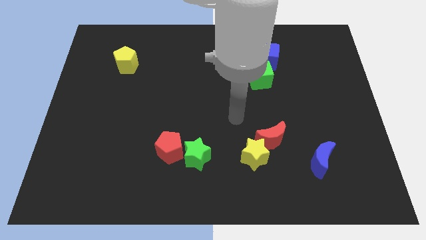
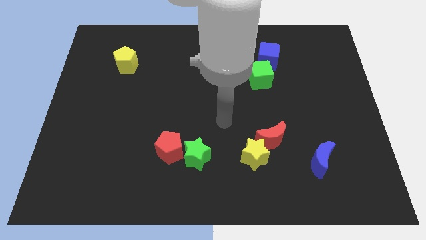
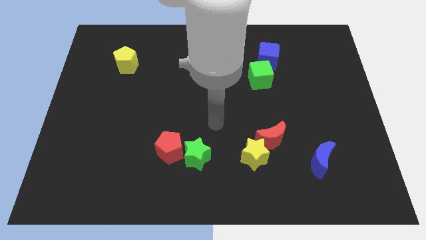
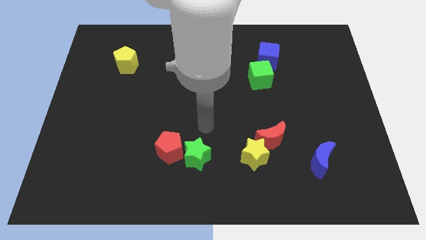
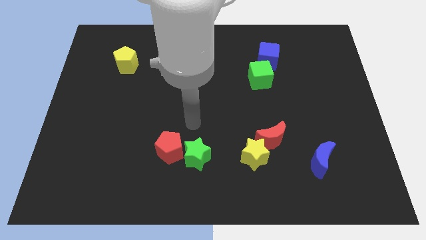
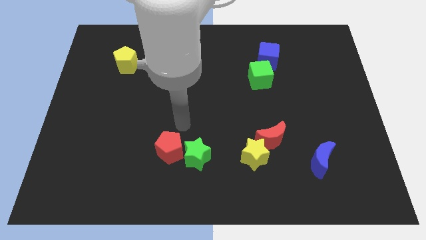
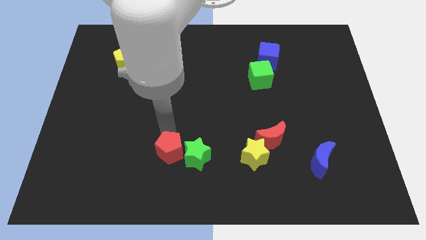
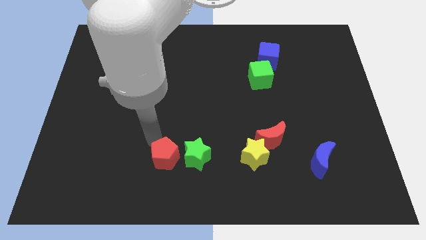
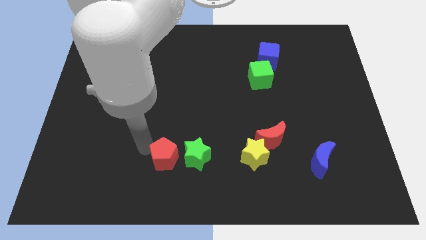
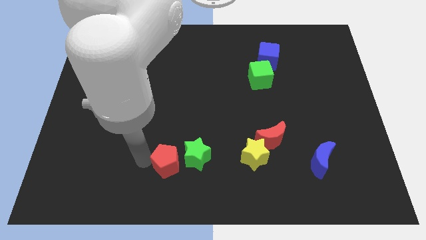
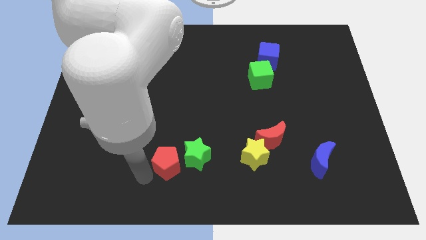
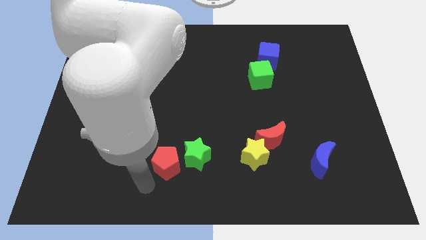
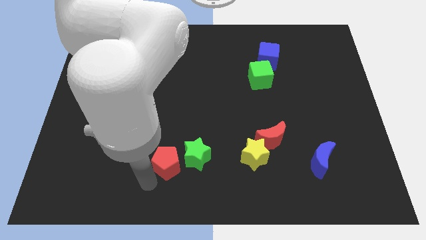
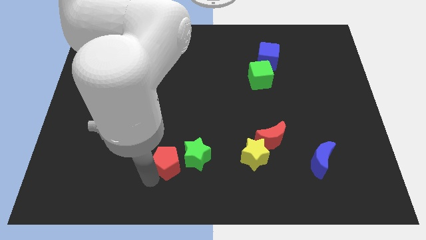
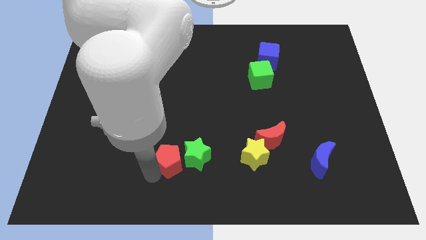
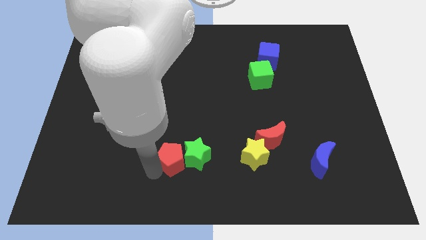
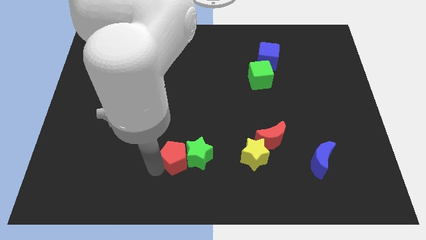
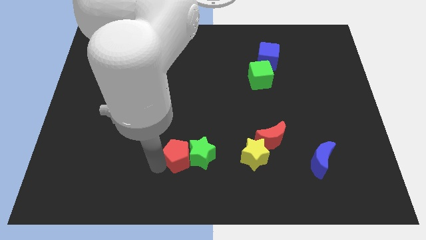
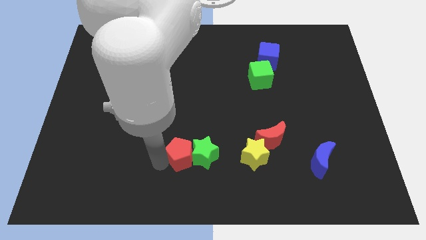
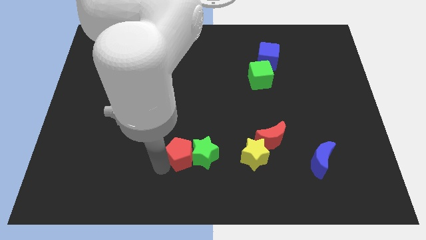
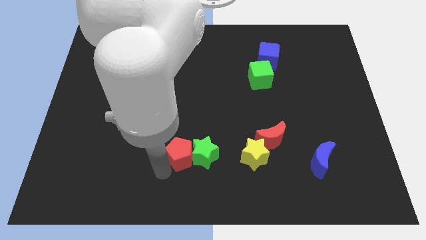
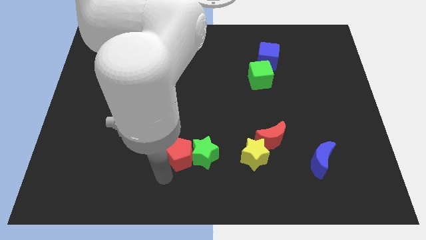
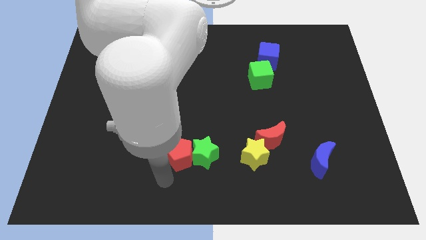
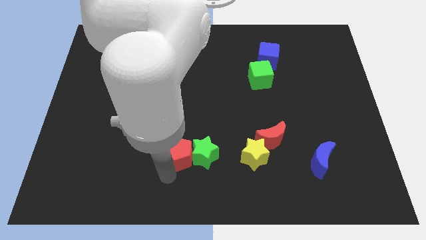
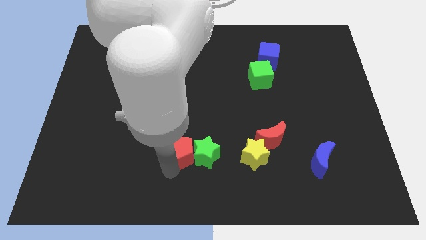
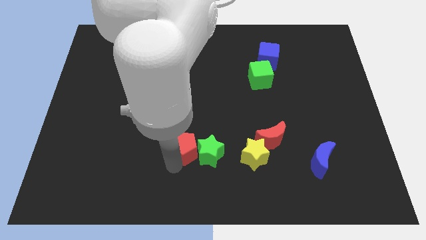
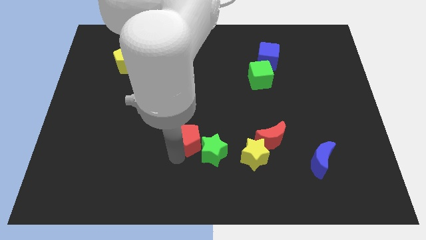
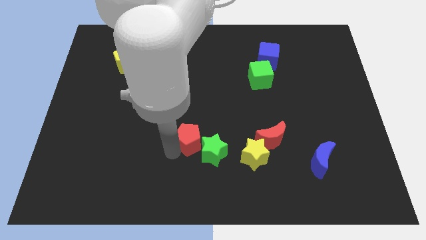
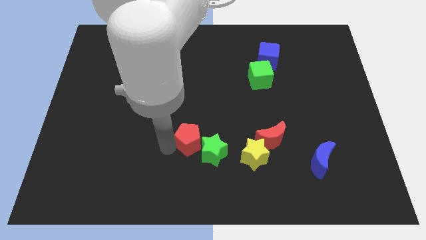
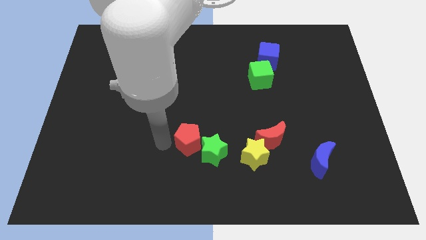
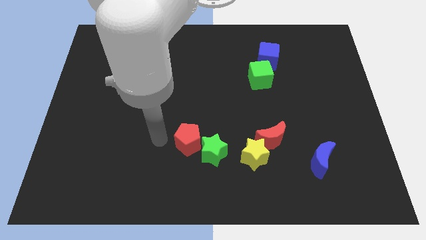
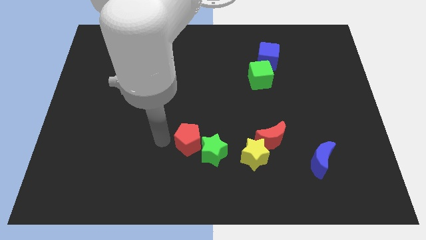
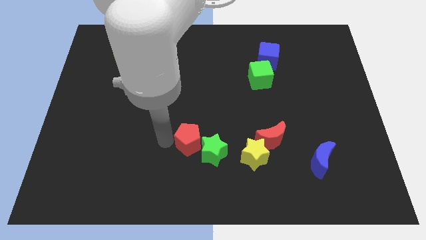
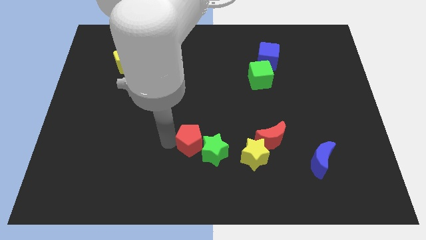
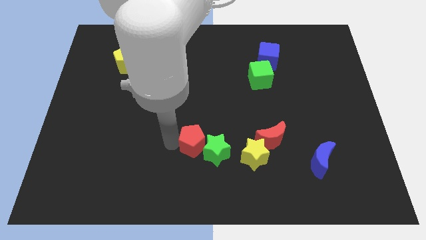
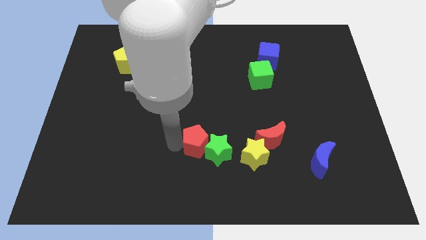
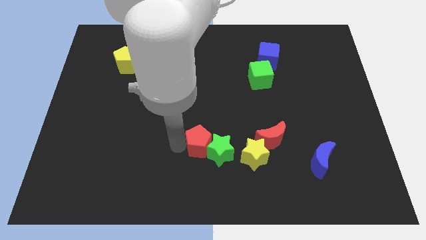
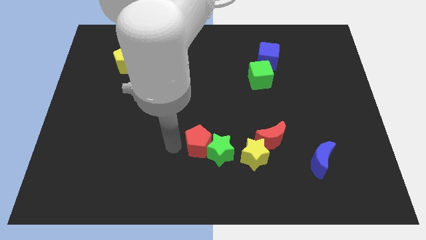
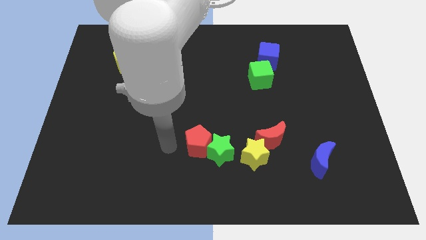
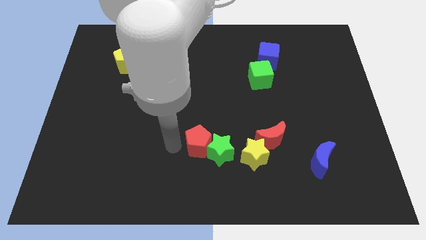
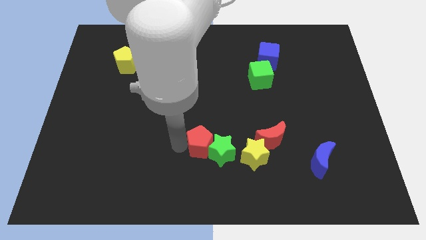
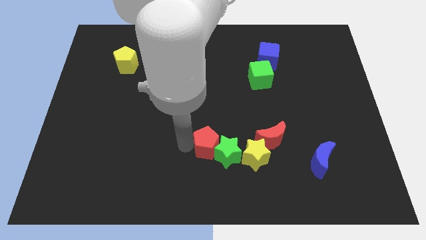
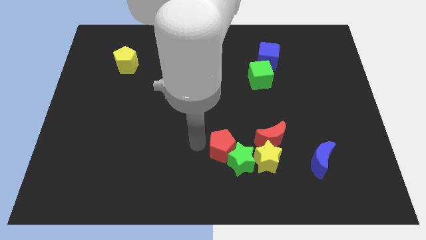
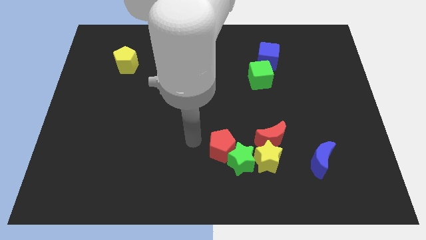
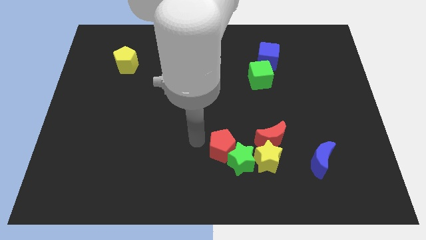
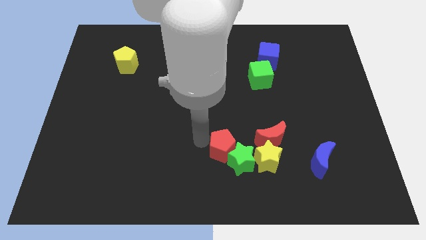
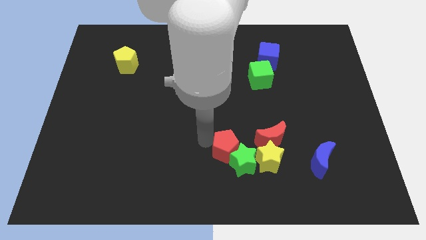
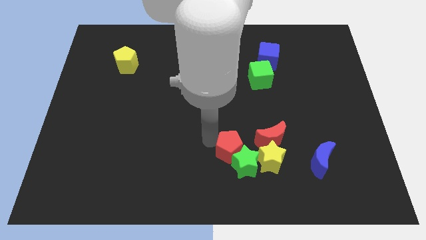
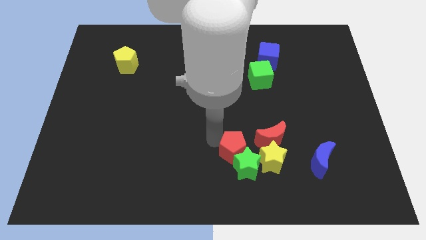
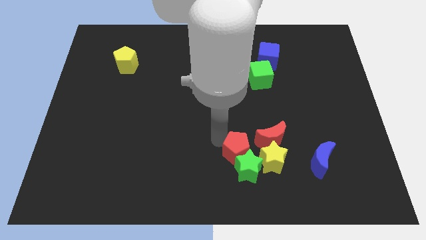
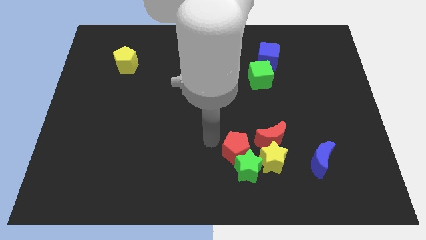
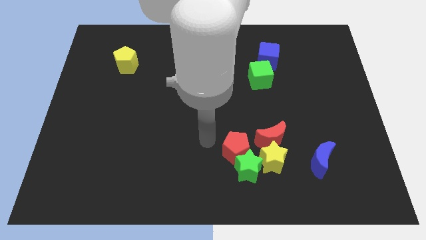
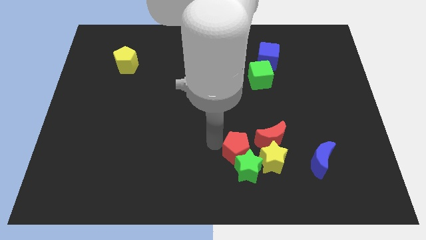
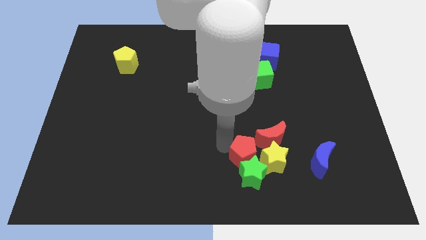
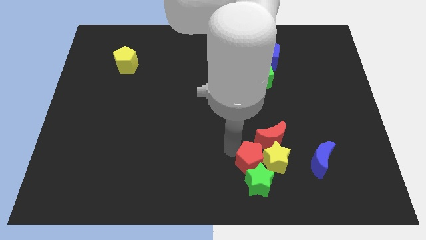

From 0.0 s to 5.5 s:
move the red pentagon close to the yellow star

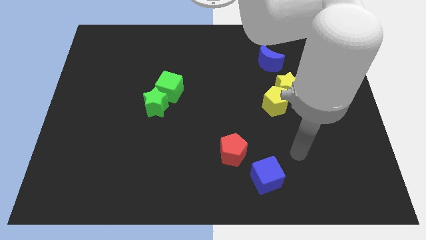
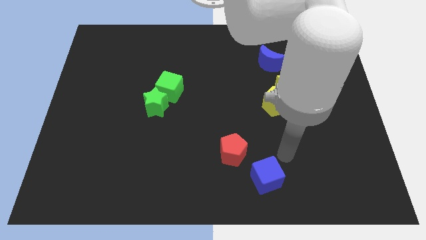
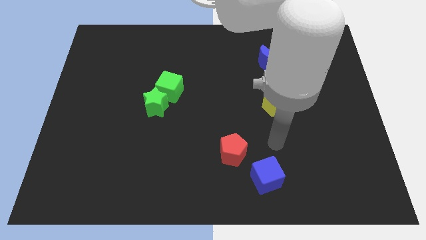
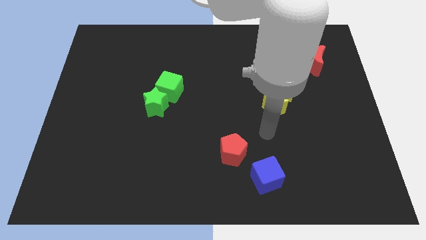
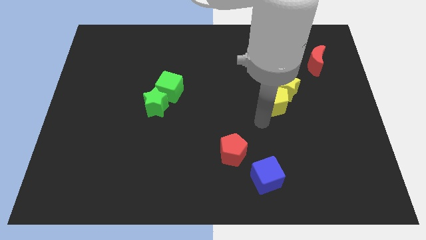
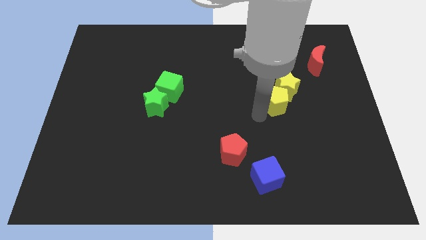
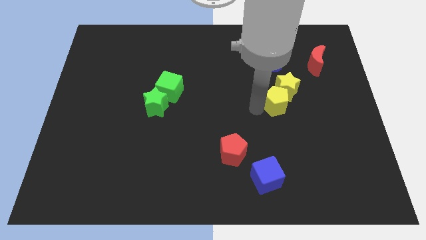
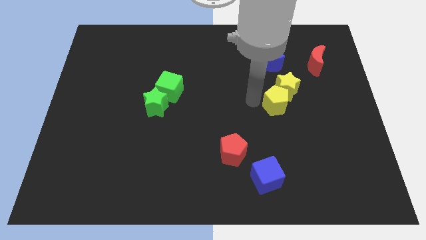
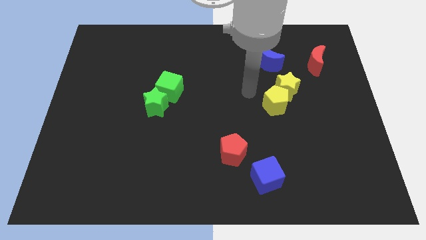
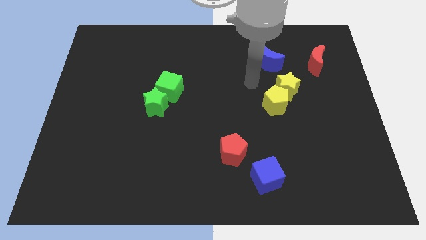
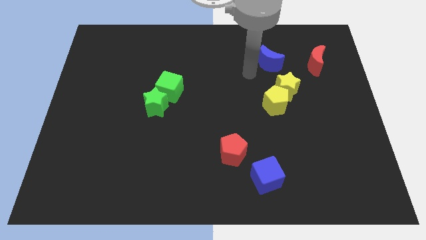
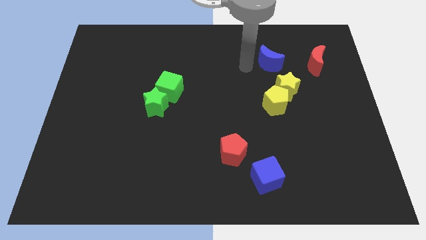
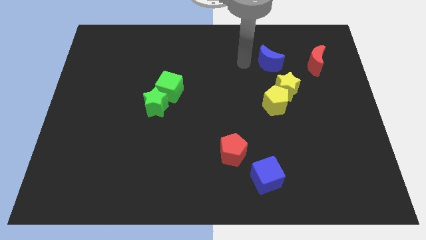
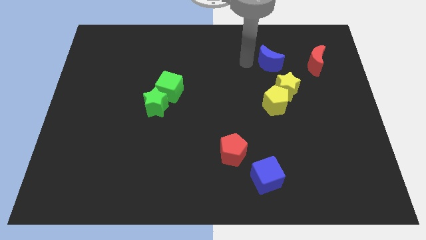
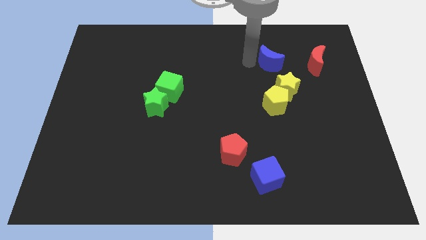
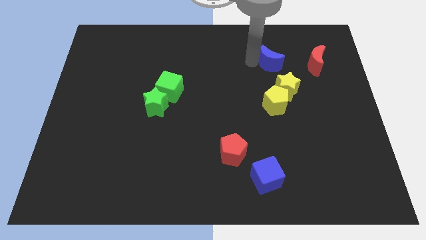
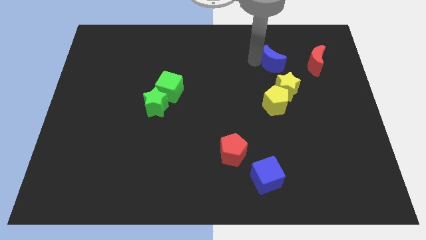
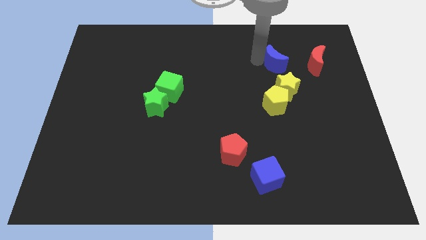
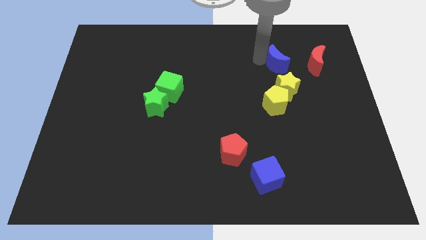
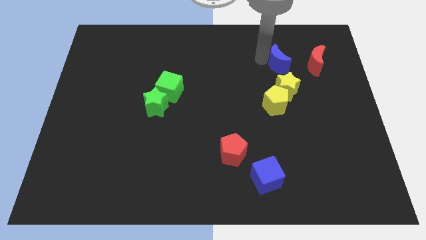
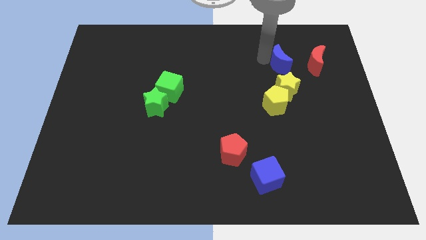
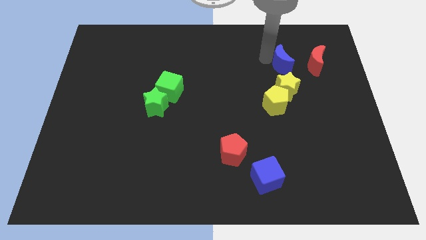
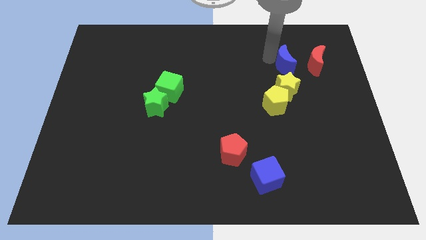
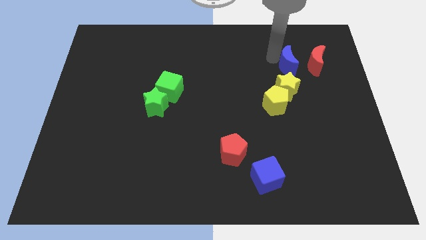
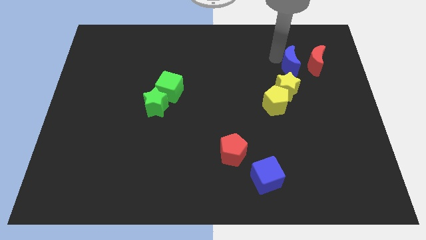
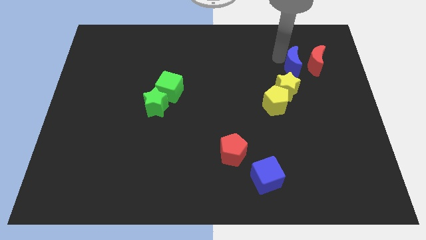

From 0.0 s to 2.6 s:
put the blue moon close to the red moon
